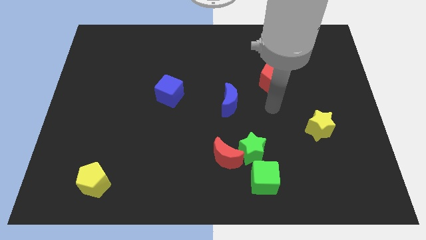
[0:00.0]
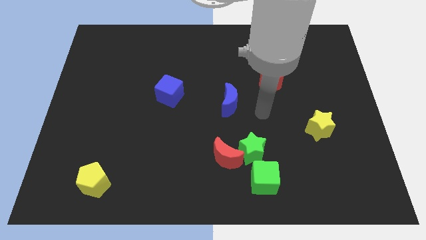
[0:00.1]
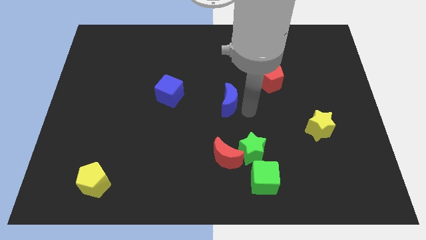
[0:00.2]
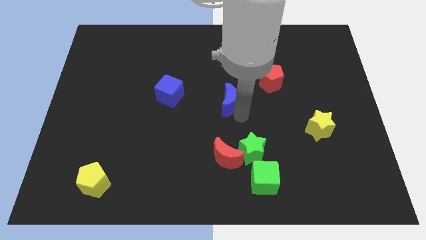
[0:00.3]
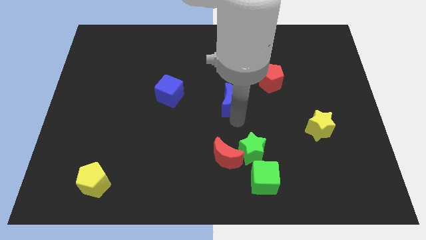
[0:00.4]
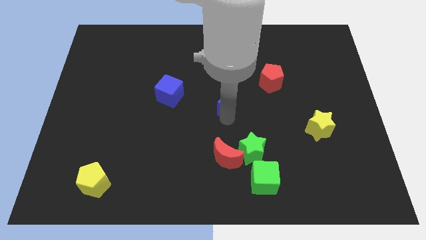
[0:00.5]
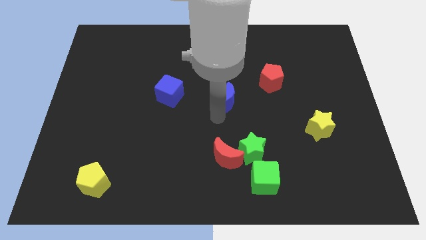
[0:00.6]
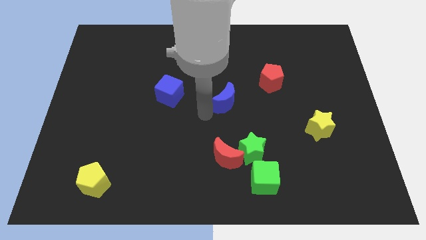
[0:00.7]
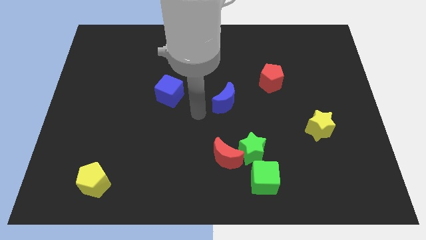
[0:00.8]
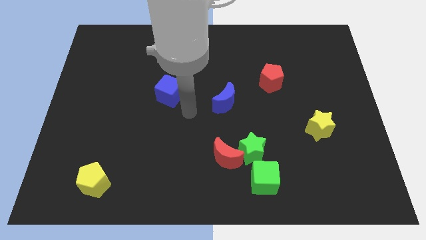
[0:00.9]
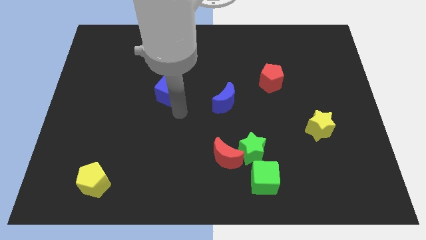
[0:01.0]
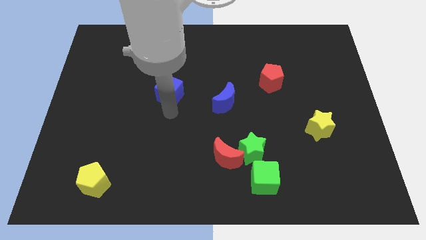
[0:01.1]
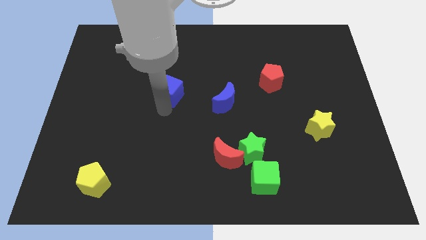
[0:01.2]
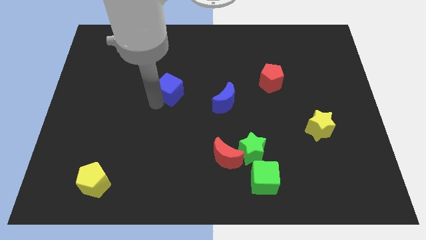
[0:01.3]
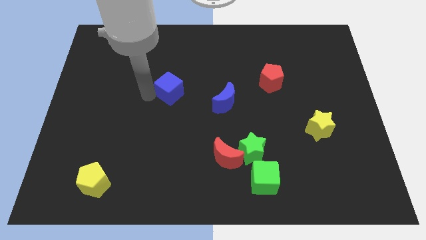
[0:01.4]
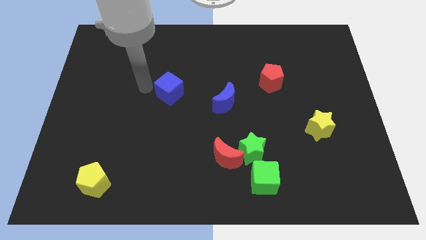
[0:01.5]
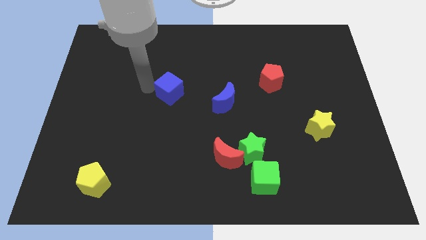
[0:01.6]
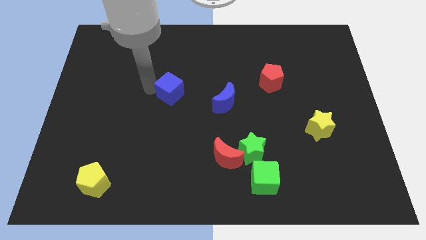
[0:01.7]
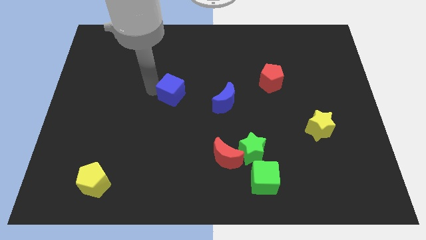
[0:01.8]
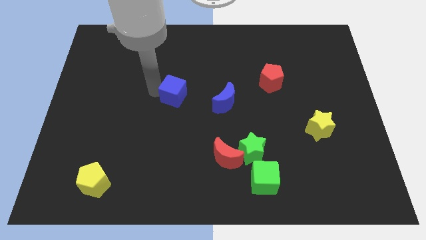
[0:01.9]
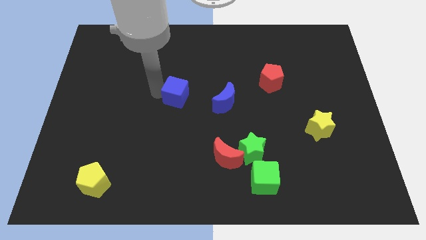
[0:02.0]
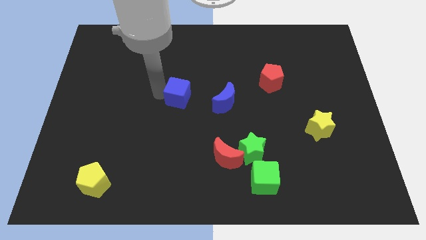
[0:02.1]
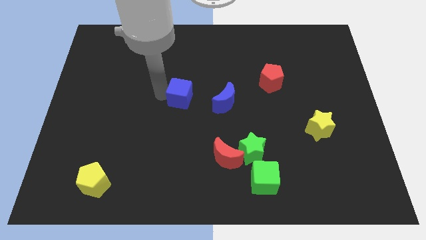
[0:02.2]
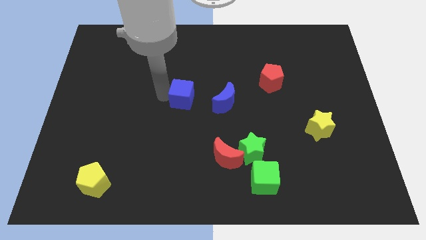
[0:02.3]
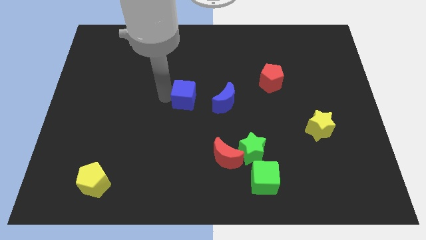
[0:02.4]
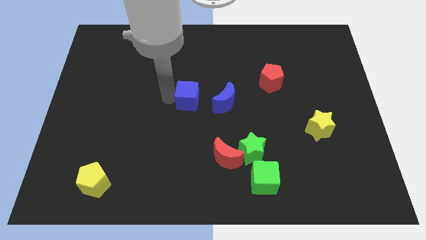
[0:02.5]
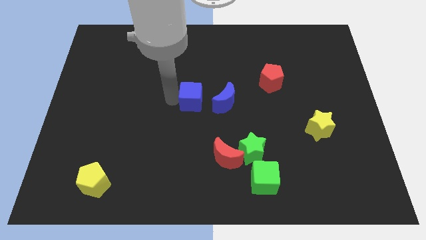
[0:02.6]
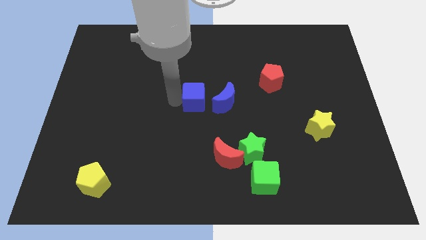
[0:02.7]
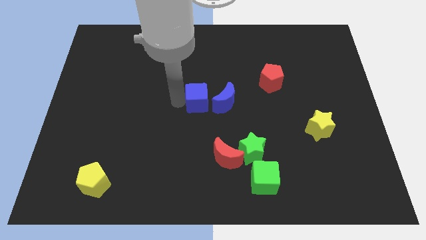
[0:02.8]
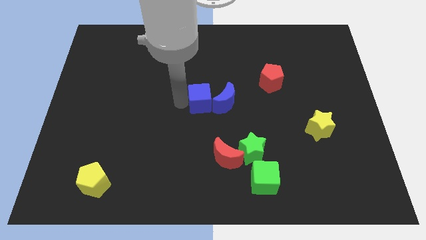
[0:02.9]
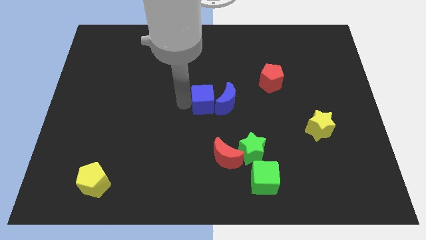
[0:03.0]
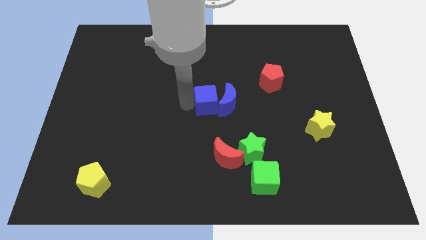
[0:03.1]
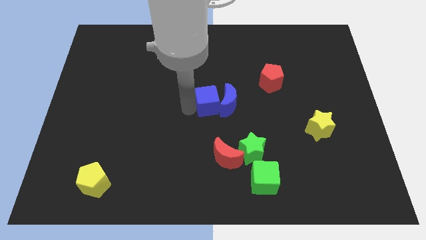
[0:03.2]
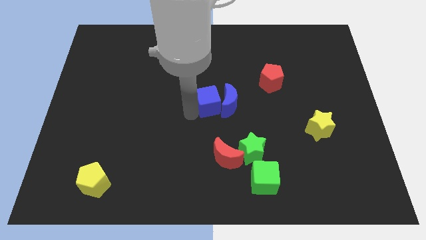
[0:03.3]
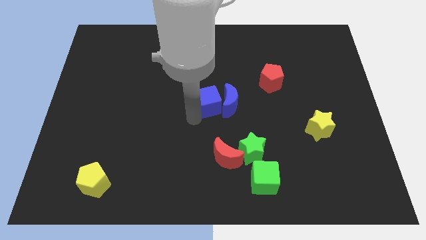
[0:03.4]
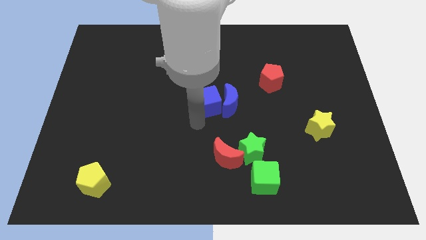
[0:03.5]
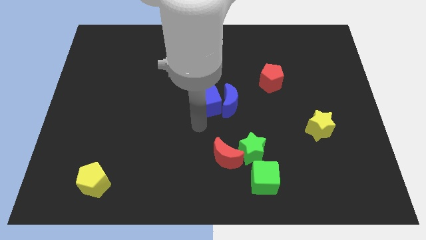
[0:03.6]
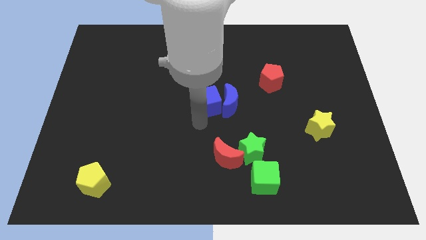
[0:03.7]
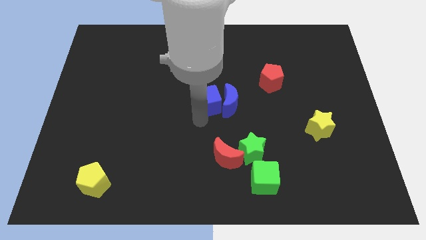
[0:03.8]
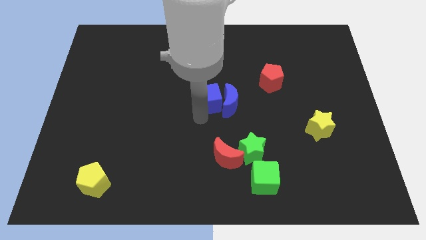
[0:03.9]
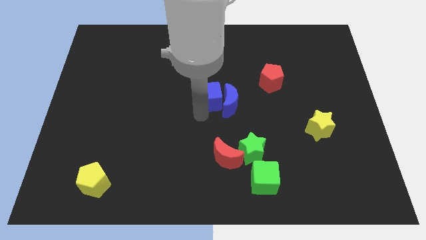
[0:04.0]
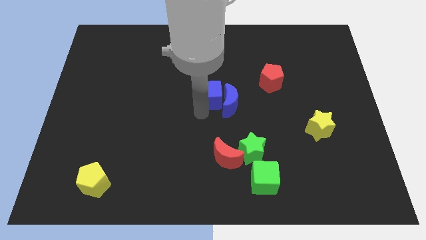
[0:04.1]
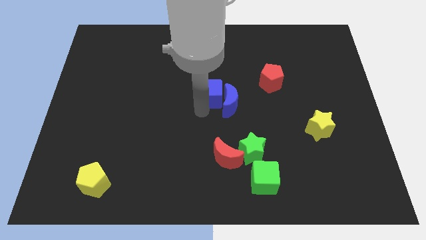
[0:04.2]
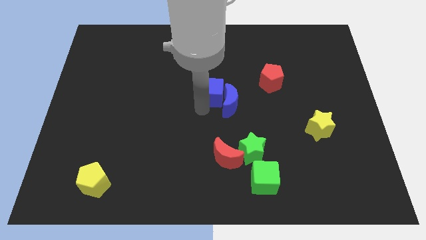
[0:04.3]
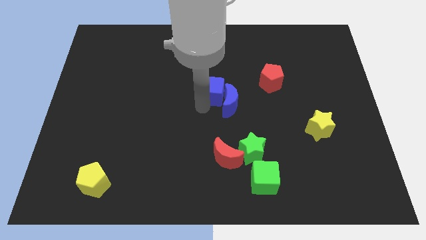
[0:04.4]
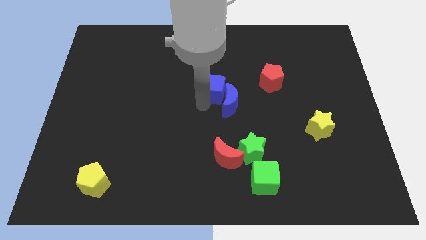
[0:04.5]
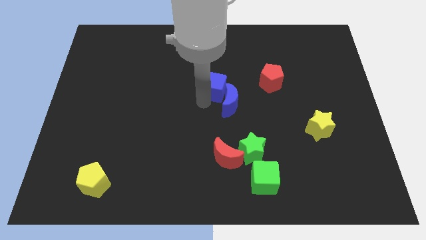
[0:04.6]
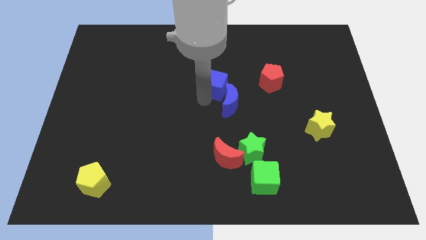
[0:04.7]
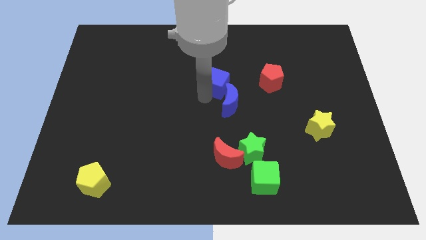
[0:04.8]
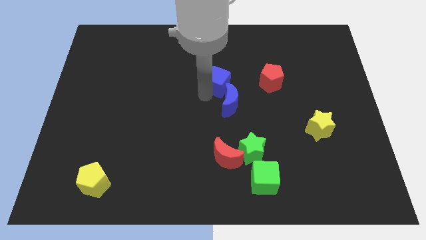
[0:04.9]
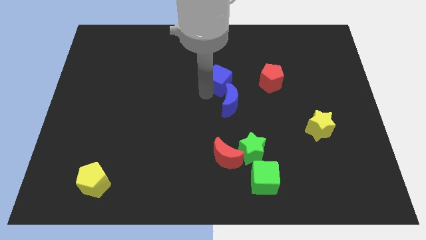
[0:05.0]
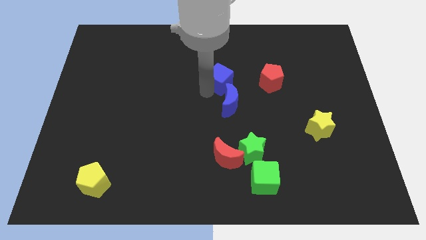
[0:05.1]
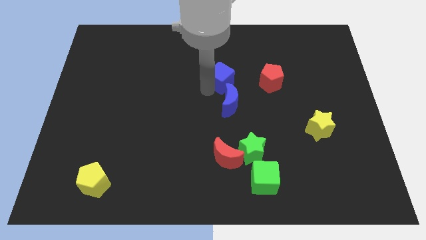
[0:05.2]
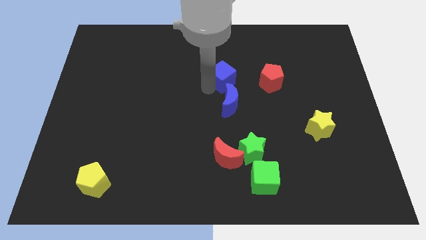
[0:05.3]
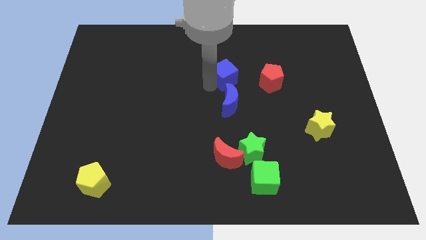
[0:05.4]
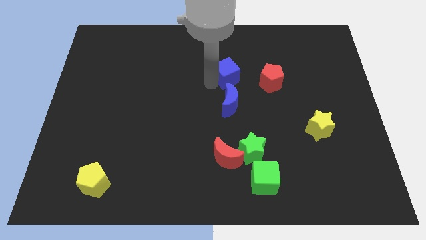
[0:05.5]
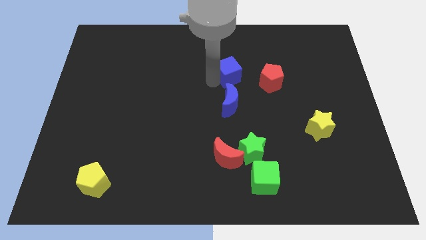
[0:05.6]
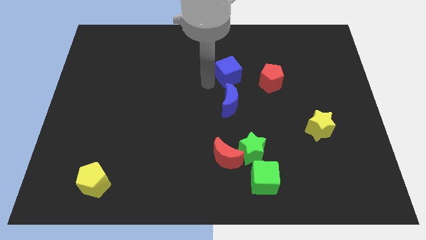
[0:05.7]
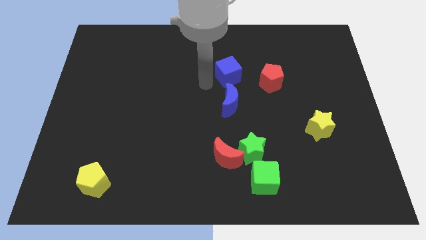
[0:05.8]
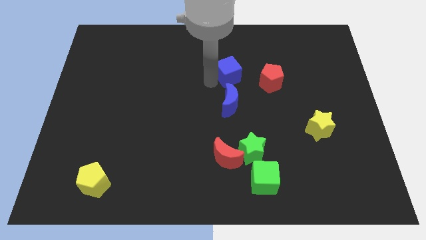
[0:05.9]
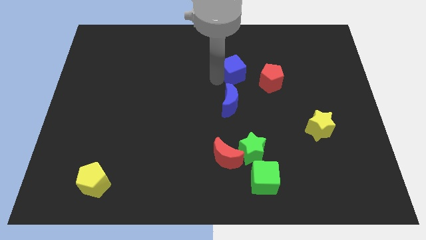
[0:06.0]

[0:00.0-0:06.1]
push the blue cube to the top left side of the red pentagon

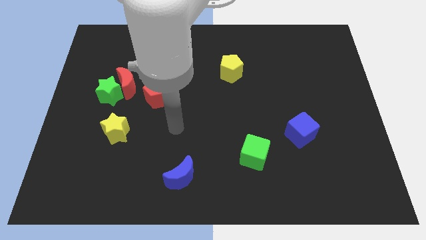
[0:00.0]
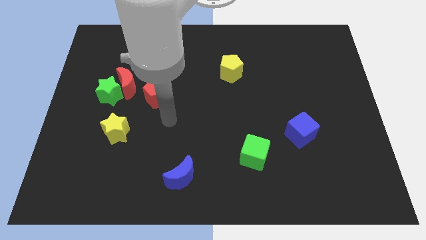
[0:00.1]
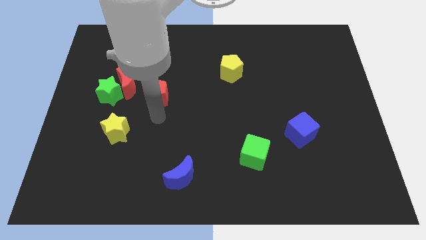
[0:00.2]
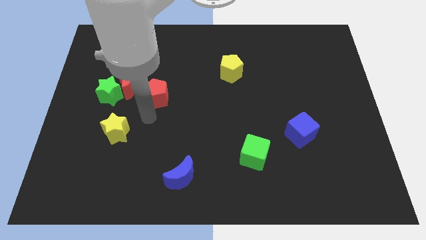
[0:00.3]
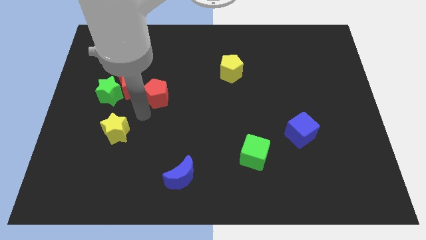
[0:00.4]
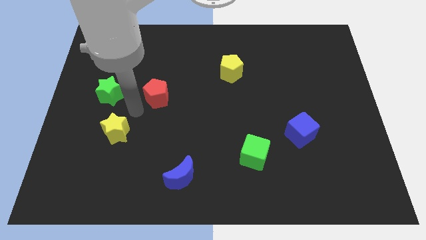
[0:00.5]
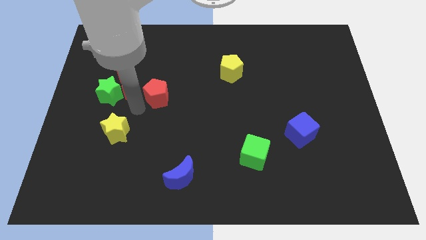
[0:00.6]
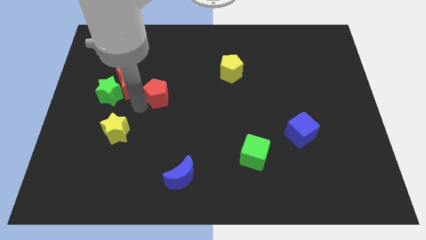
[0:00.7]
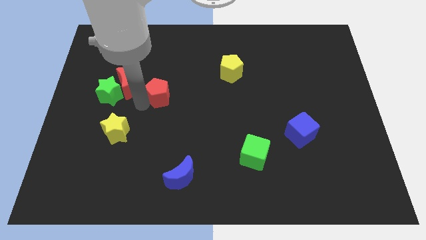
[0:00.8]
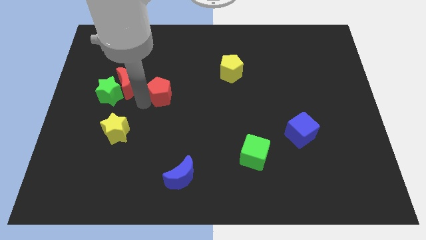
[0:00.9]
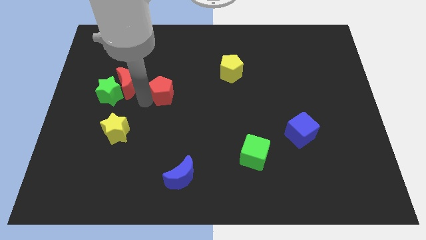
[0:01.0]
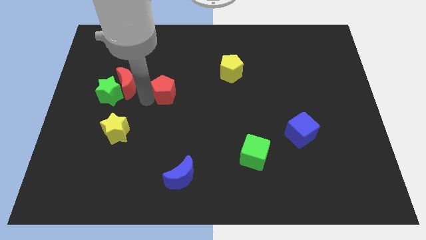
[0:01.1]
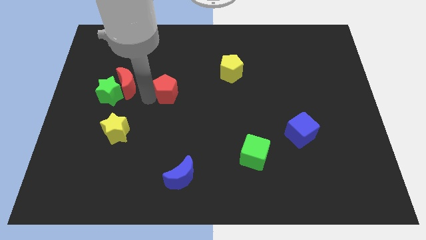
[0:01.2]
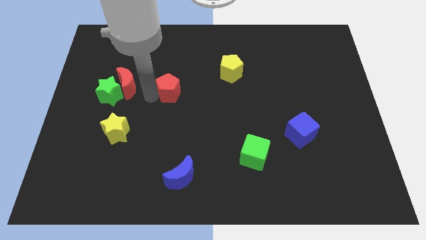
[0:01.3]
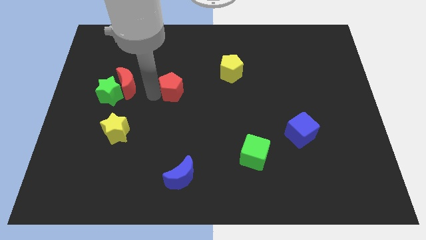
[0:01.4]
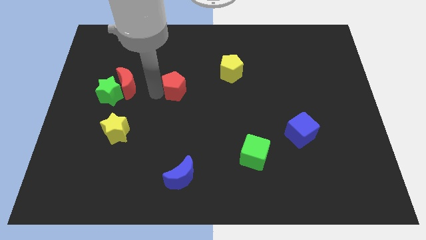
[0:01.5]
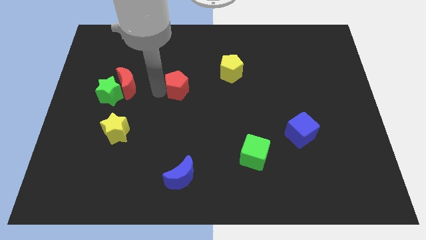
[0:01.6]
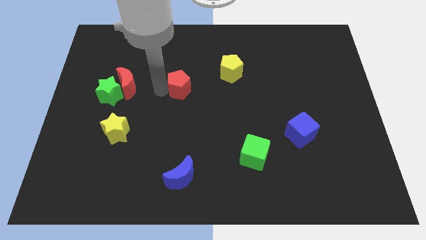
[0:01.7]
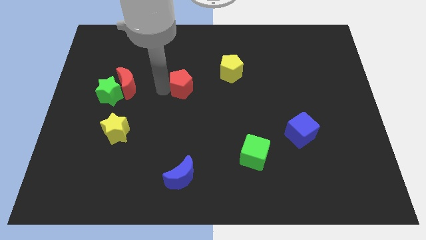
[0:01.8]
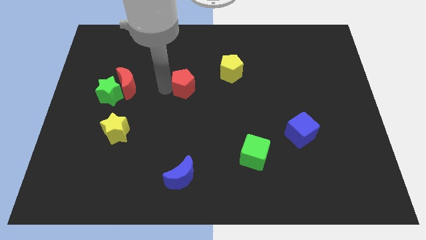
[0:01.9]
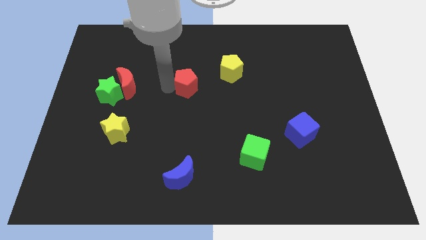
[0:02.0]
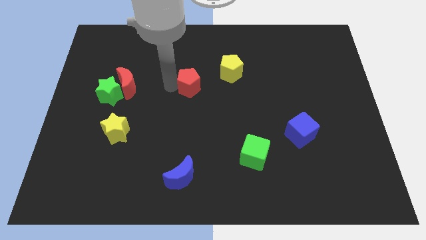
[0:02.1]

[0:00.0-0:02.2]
put the red pentagon diagonally down and to the left of the yellow pentagon
